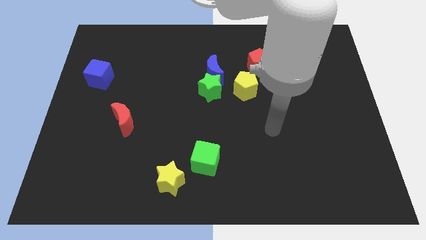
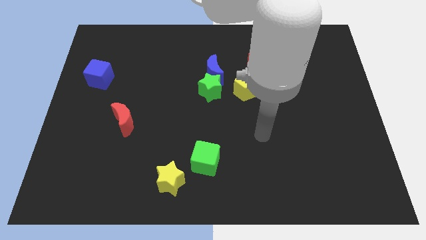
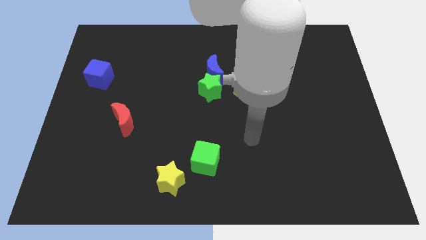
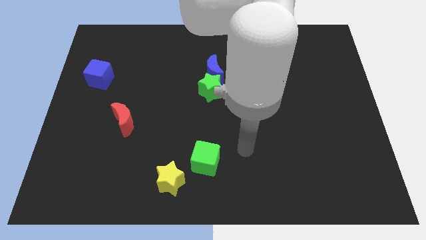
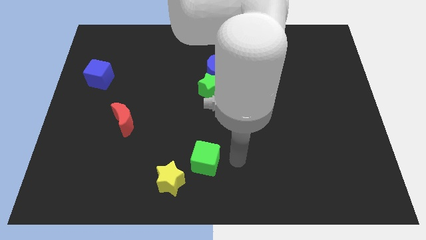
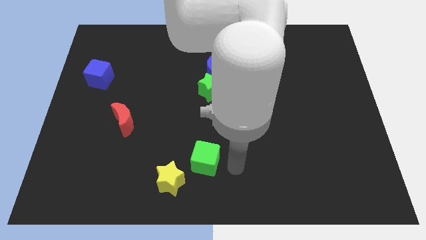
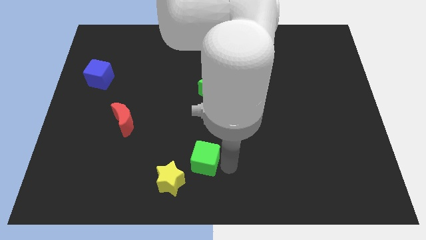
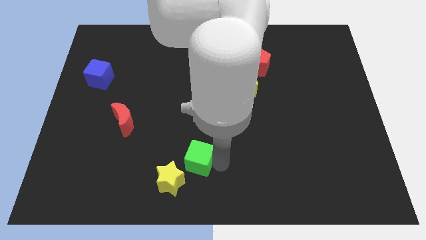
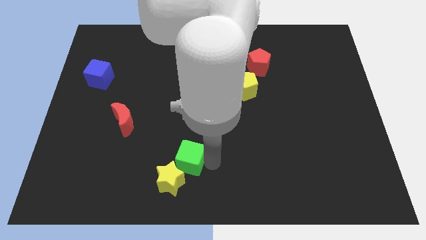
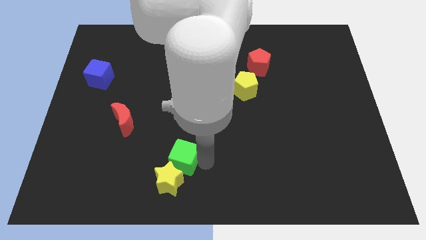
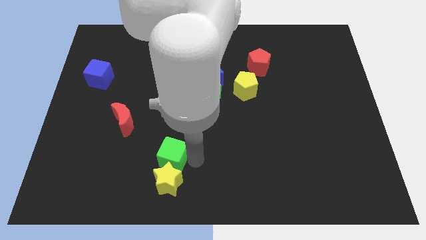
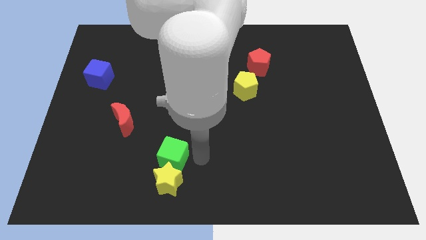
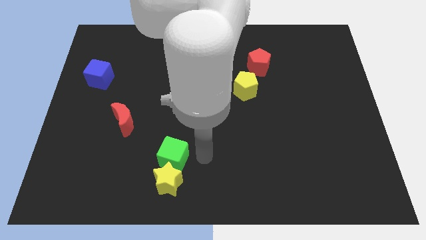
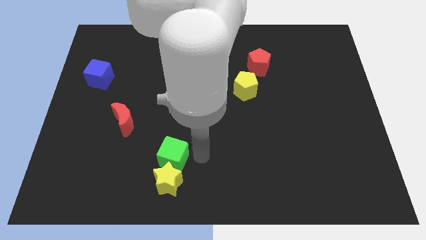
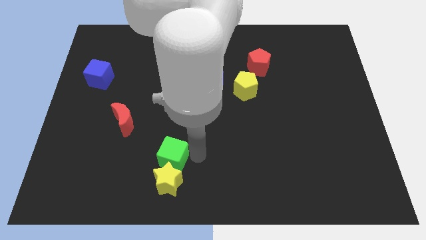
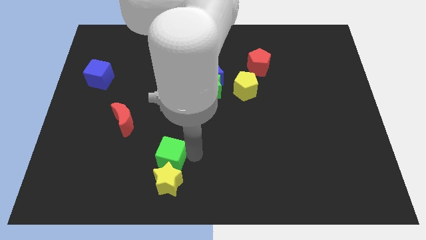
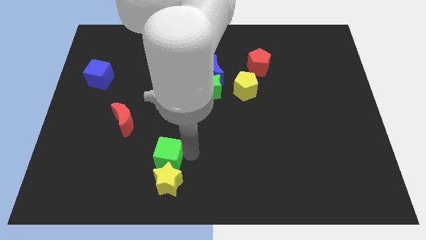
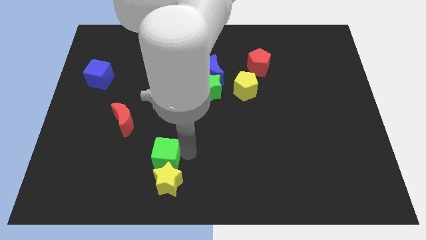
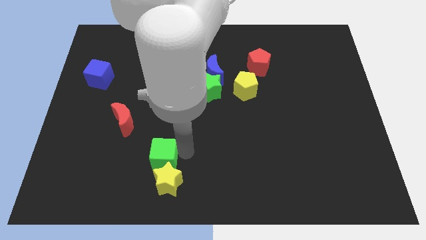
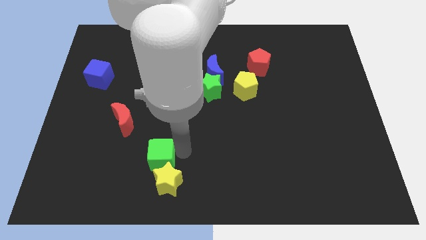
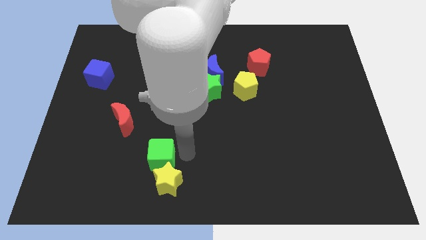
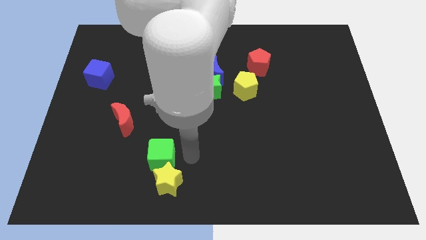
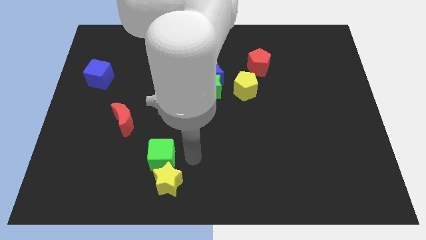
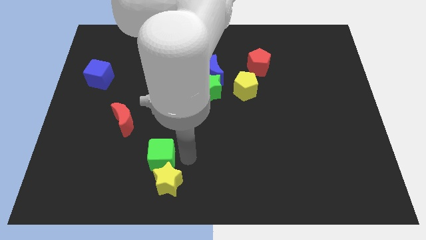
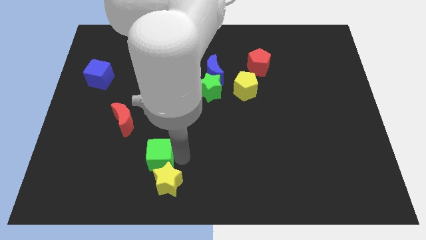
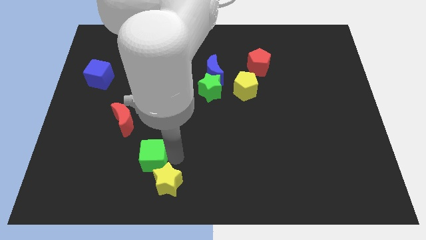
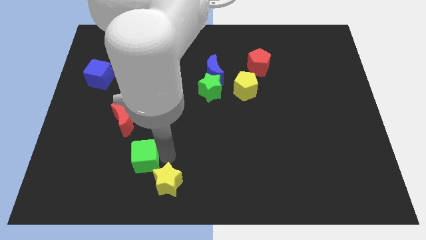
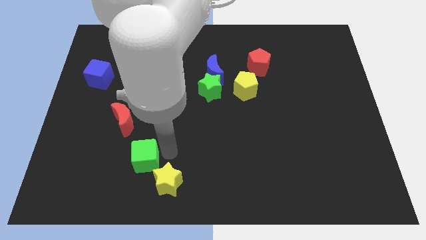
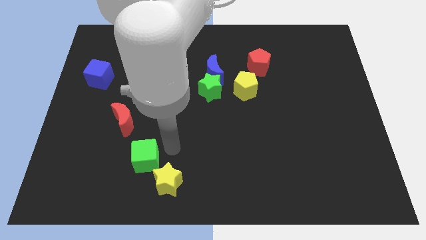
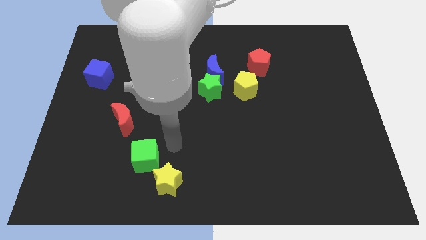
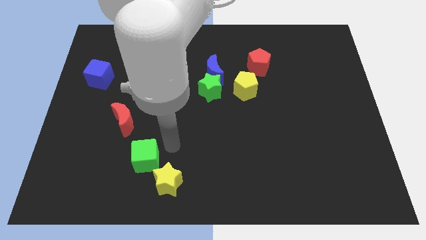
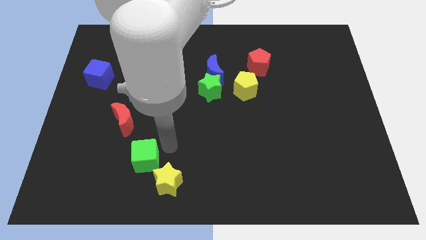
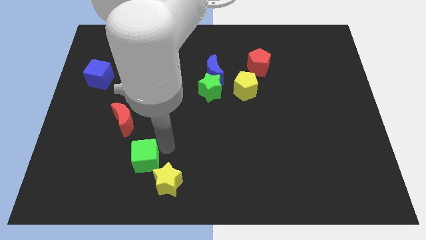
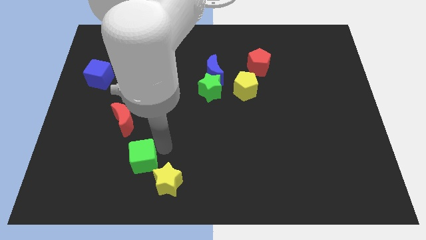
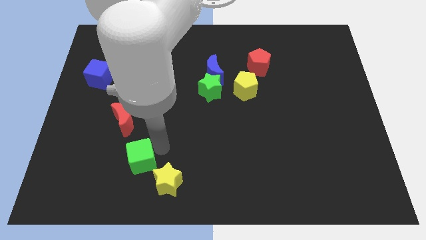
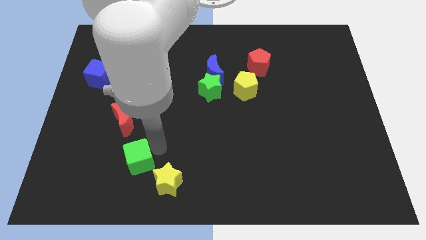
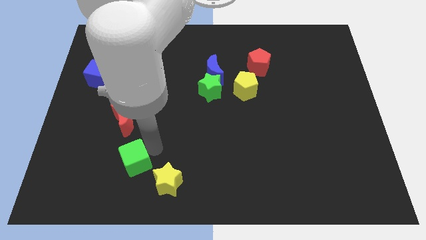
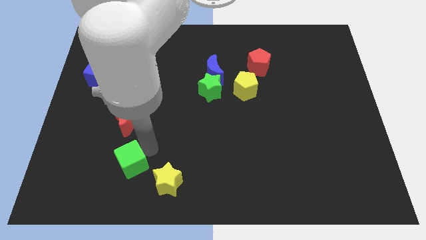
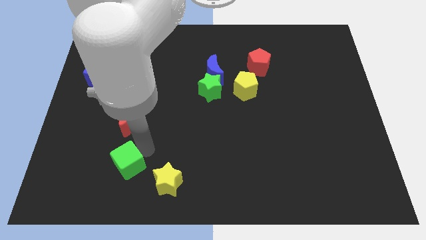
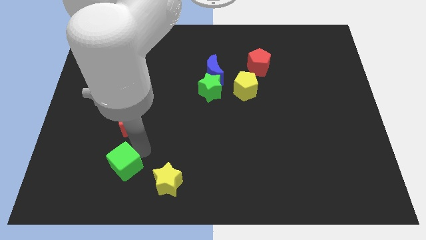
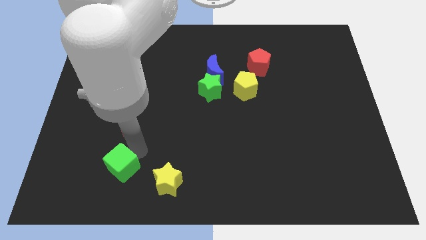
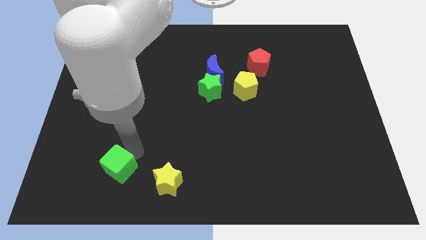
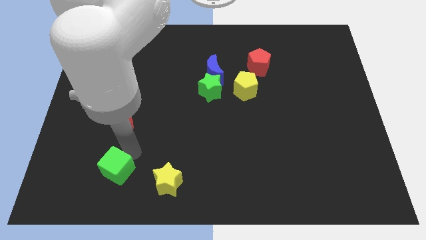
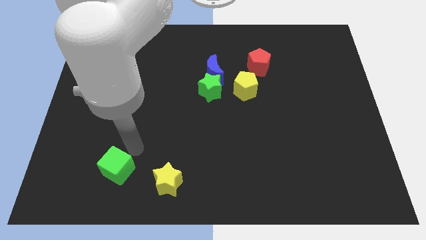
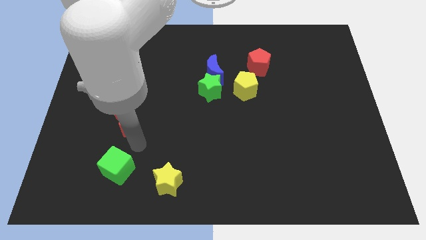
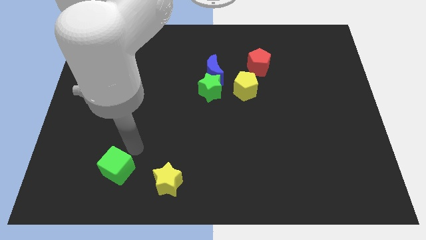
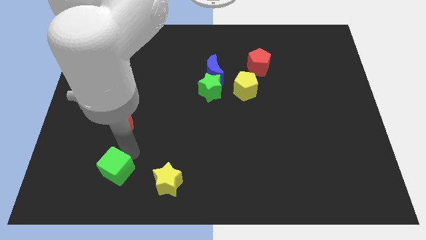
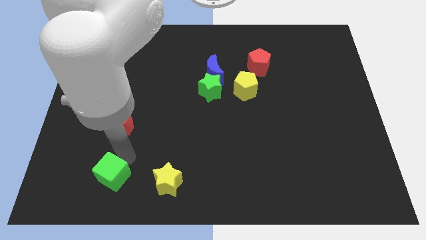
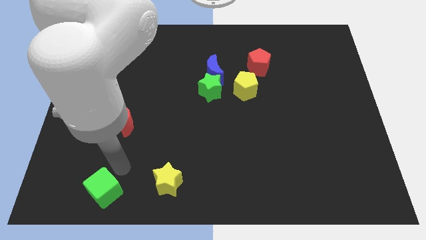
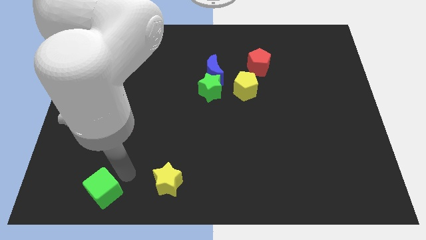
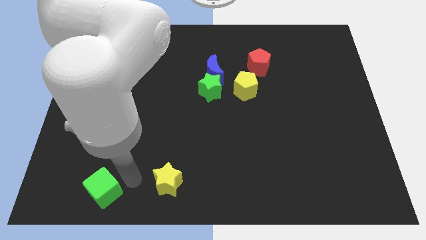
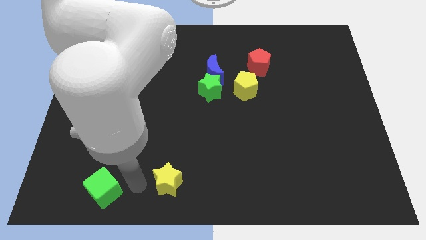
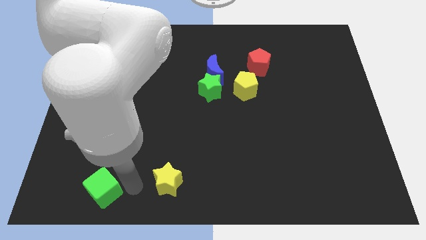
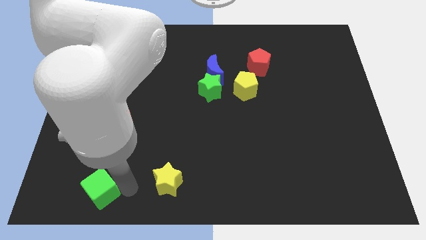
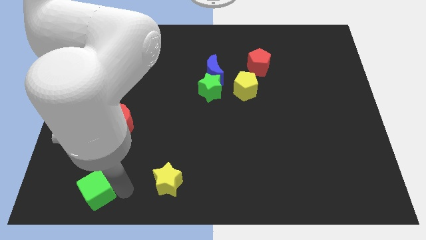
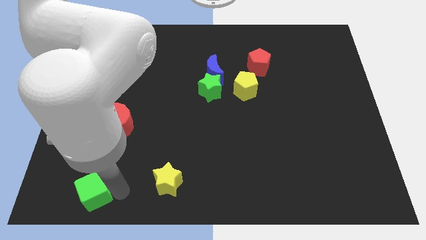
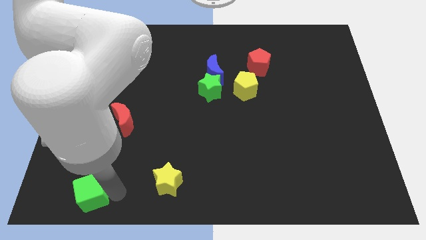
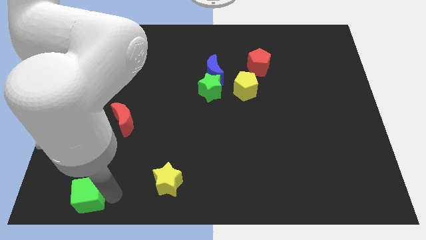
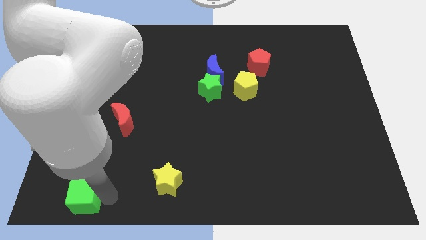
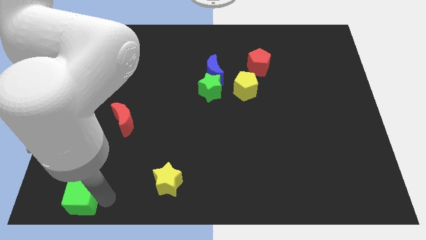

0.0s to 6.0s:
put the green cube to the bottom left of the board

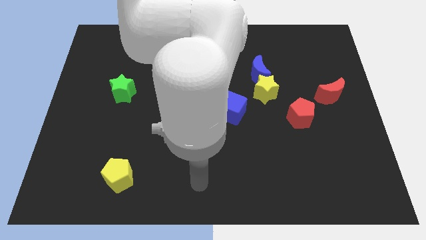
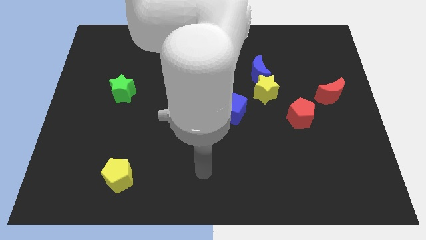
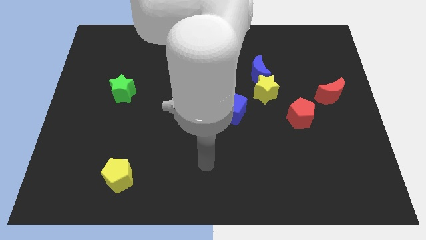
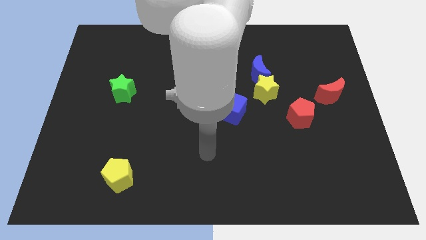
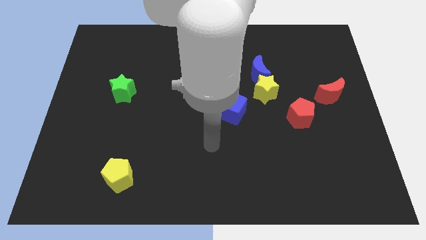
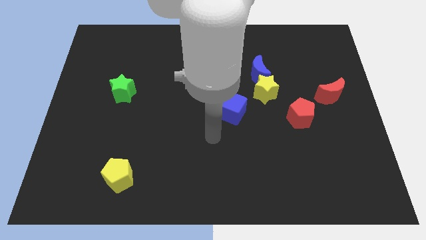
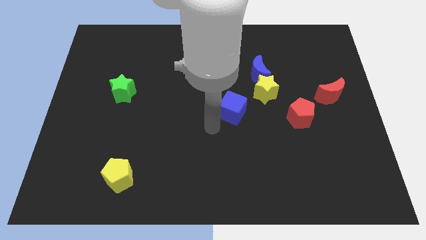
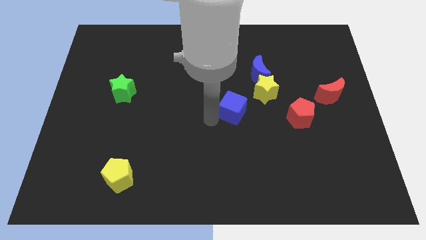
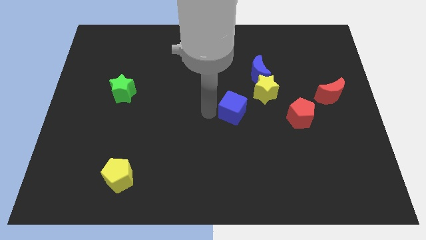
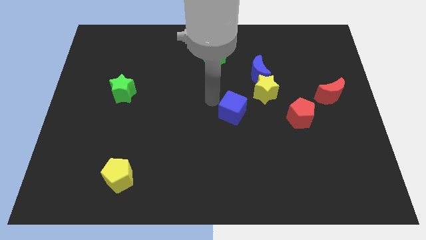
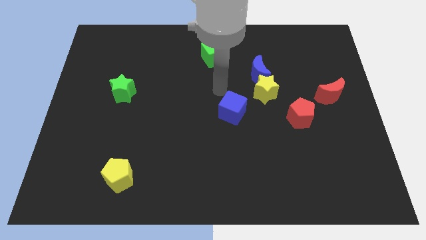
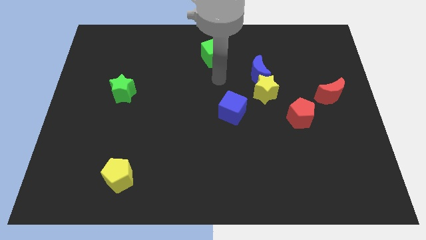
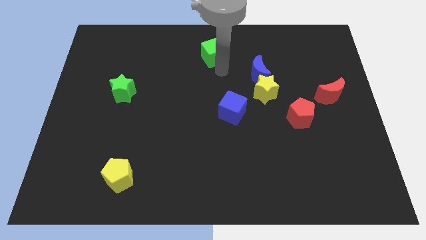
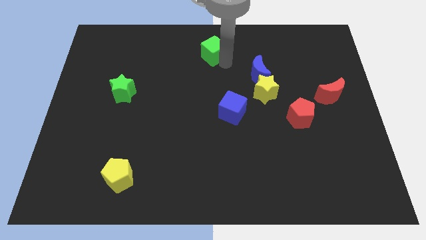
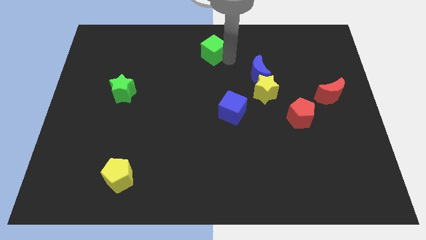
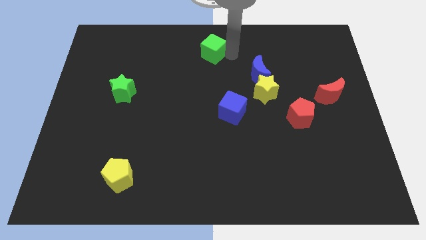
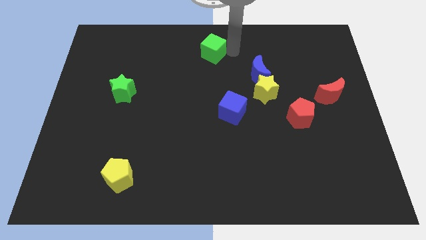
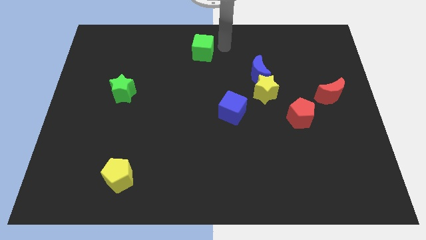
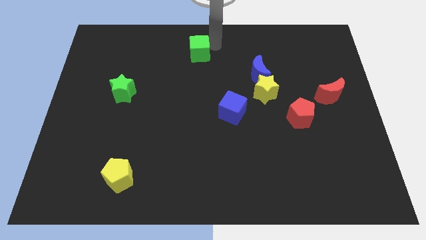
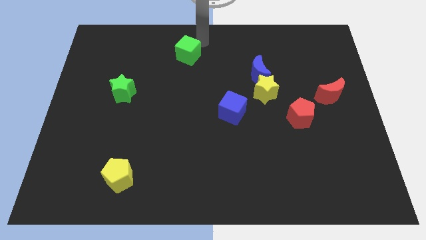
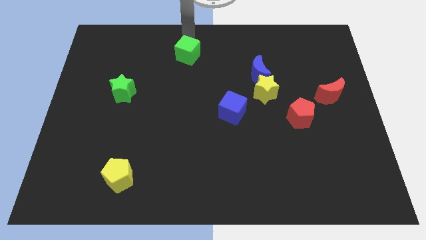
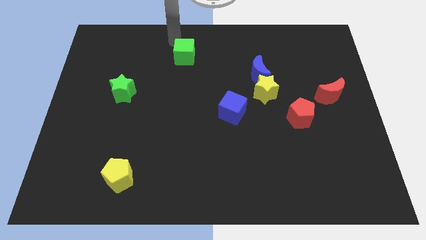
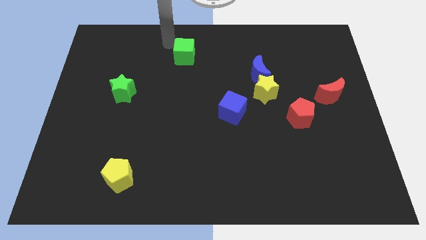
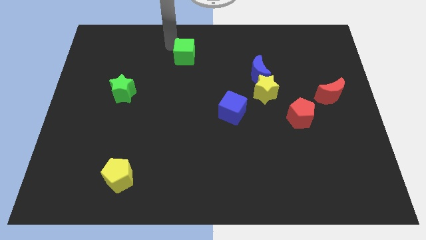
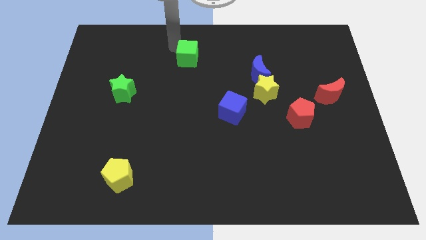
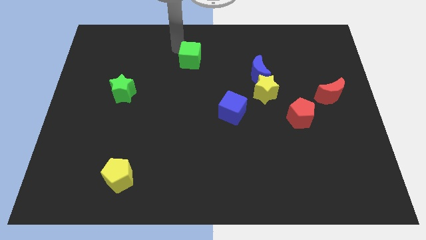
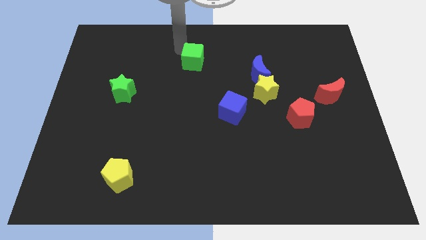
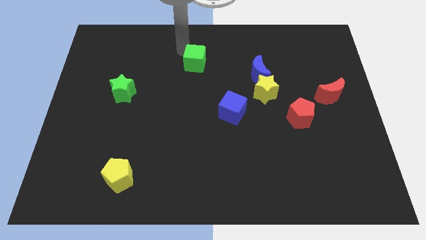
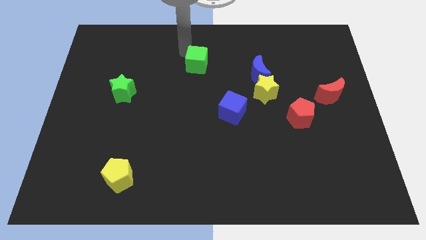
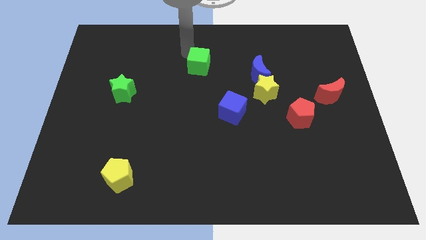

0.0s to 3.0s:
push the green cube to the center of the board
